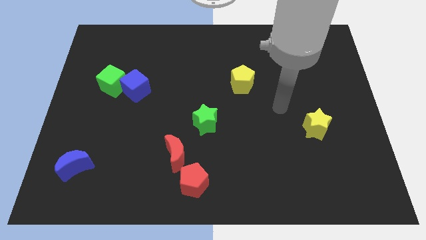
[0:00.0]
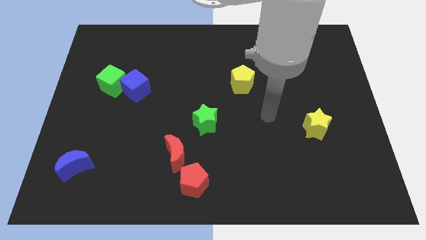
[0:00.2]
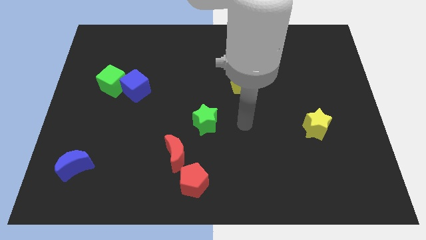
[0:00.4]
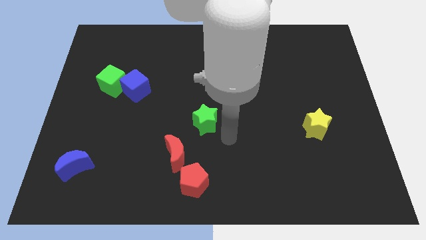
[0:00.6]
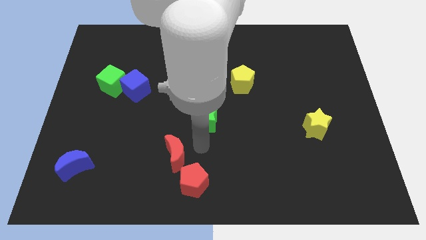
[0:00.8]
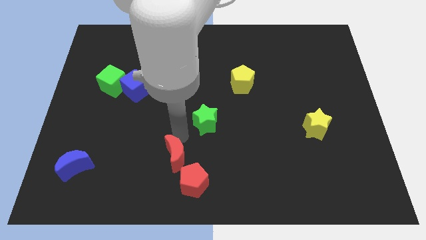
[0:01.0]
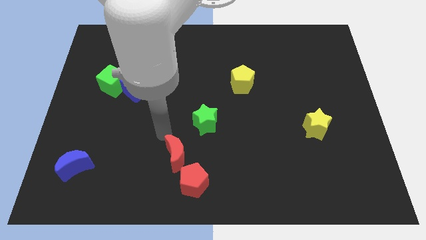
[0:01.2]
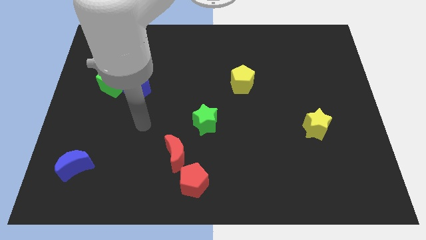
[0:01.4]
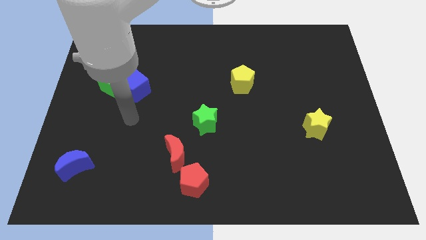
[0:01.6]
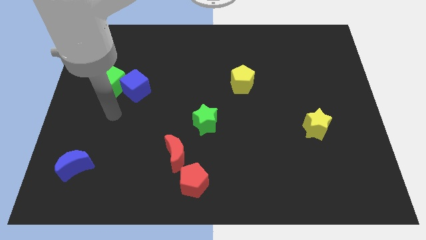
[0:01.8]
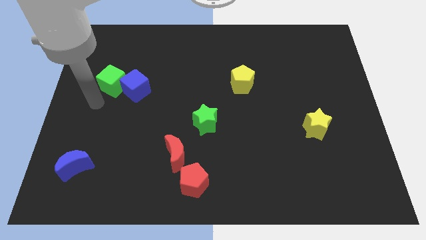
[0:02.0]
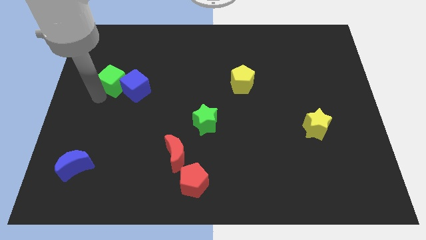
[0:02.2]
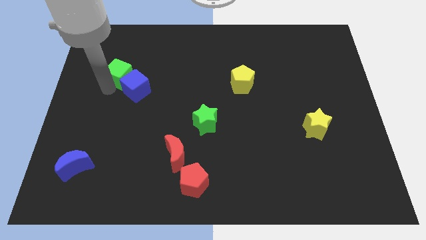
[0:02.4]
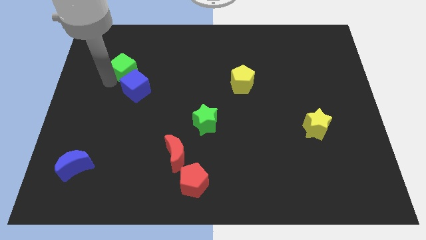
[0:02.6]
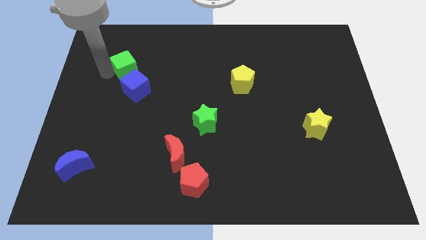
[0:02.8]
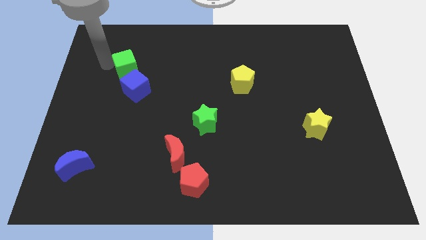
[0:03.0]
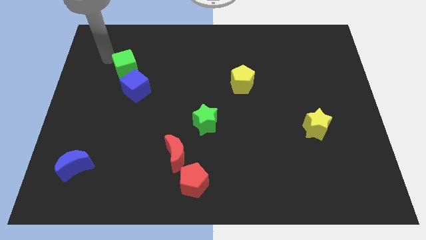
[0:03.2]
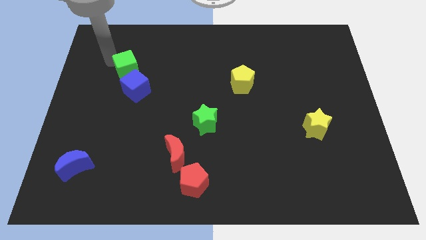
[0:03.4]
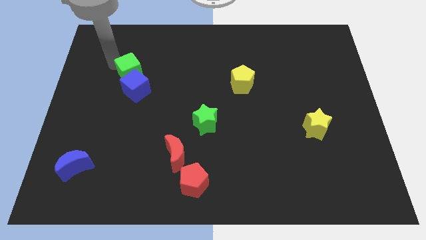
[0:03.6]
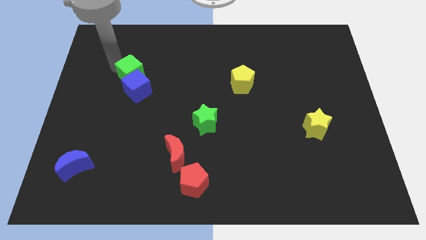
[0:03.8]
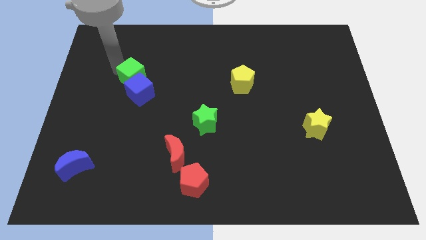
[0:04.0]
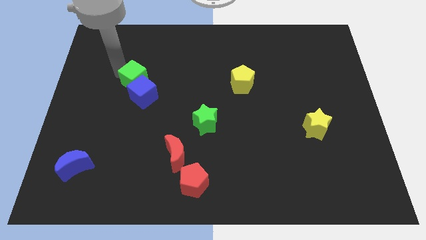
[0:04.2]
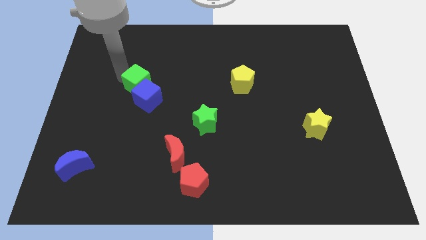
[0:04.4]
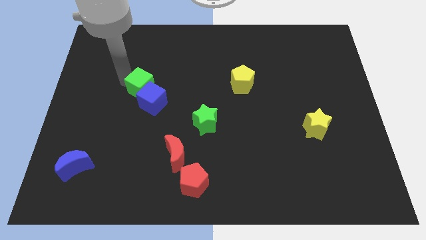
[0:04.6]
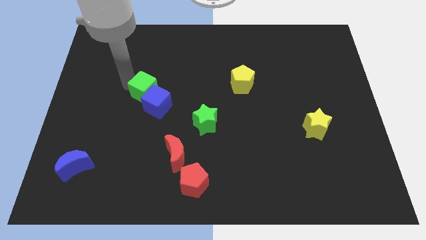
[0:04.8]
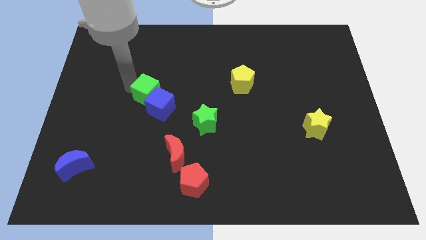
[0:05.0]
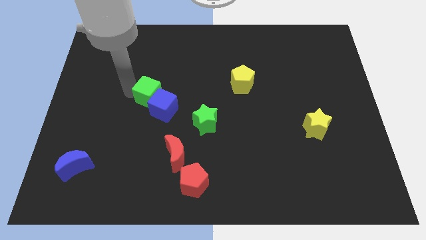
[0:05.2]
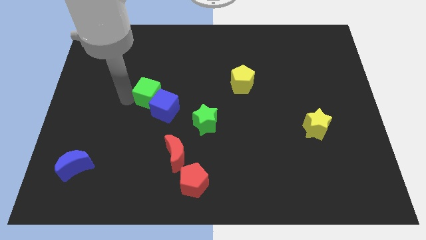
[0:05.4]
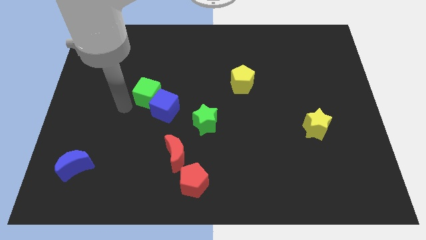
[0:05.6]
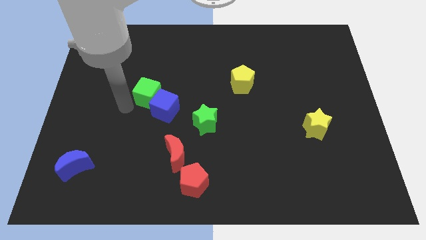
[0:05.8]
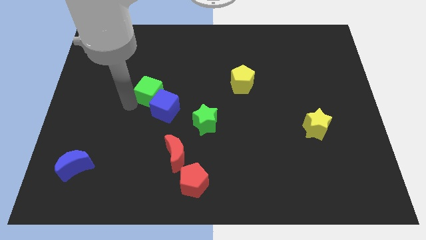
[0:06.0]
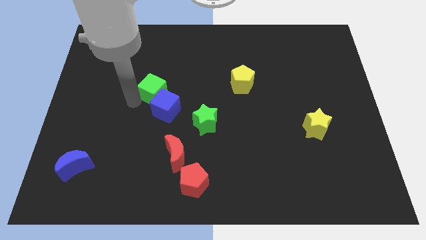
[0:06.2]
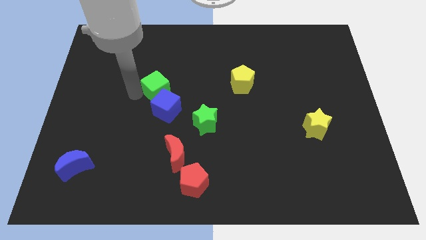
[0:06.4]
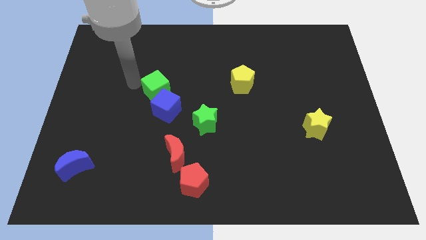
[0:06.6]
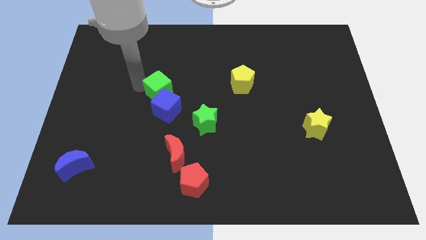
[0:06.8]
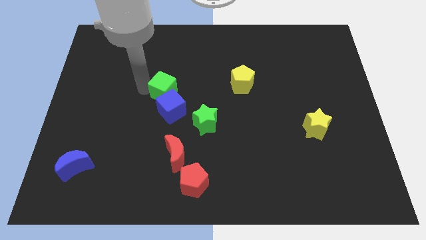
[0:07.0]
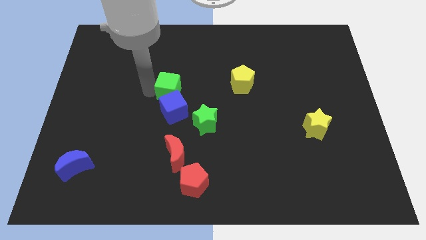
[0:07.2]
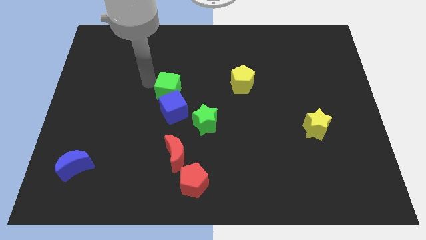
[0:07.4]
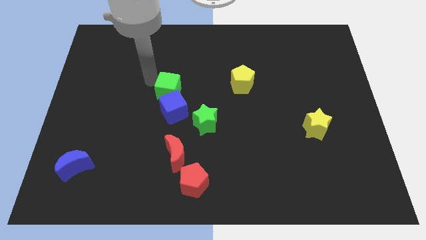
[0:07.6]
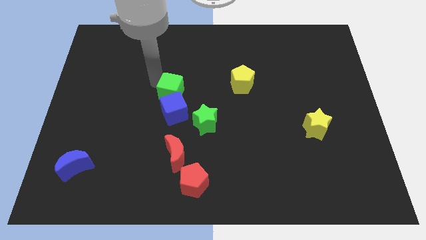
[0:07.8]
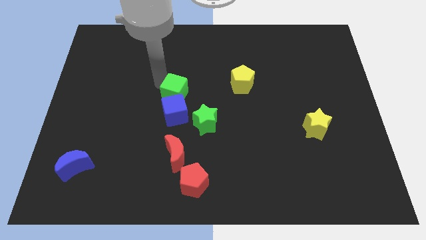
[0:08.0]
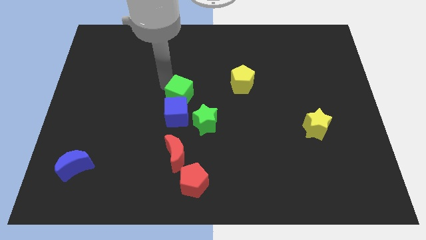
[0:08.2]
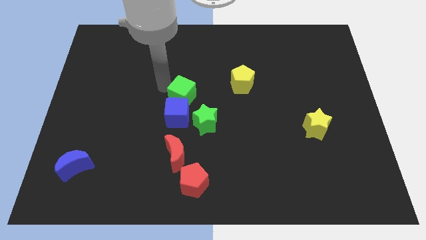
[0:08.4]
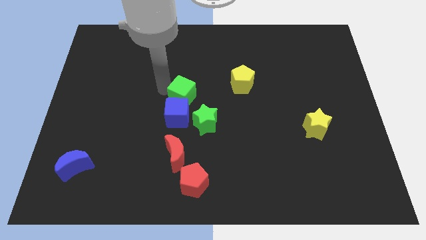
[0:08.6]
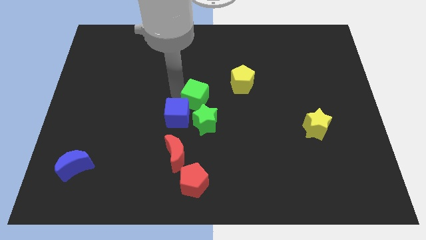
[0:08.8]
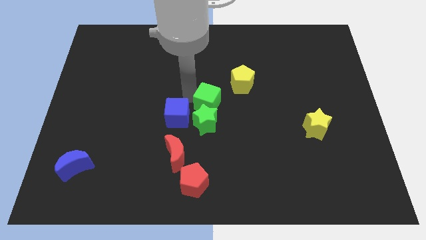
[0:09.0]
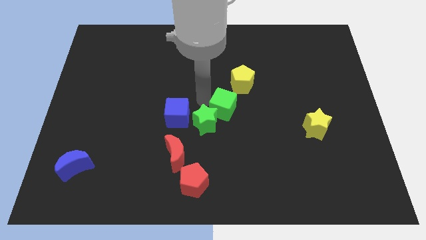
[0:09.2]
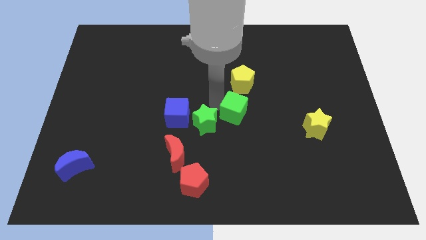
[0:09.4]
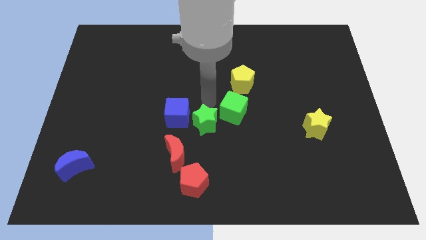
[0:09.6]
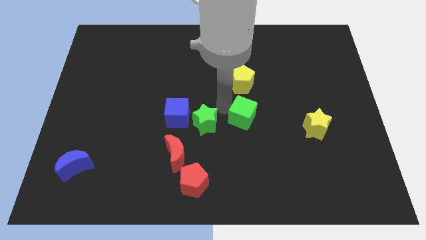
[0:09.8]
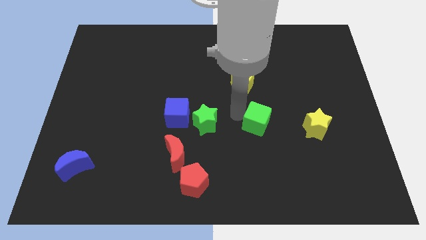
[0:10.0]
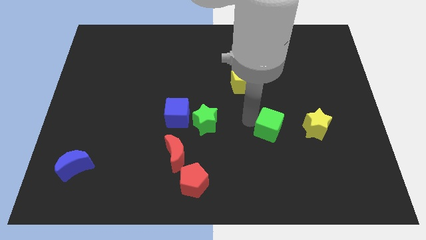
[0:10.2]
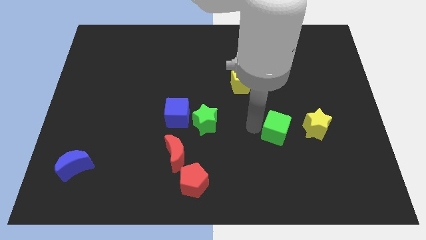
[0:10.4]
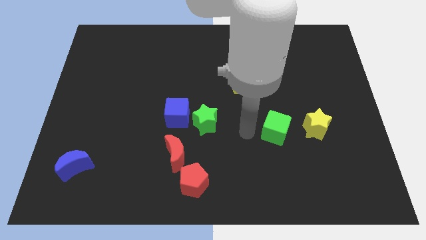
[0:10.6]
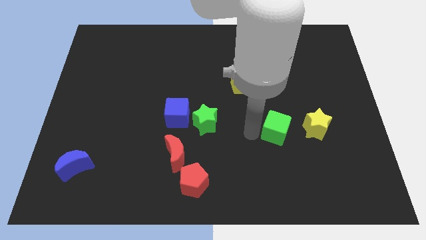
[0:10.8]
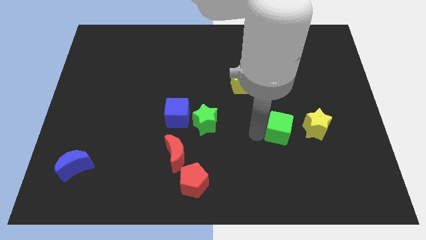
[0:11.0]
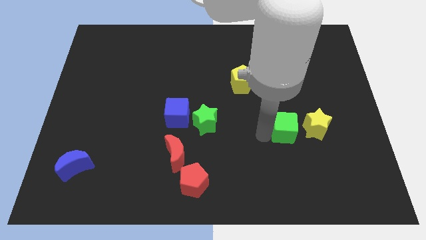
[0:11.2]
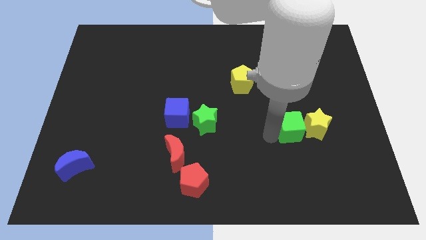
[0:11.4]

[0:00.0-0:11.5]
put the green cube towards the yellow star

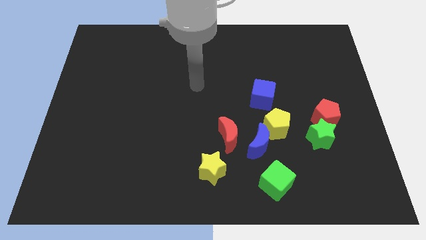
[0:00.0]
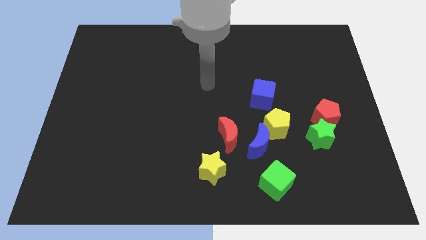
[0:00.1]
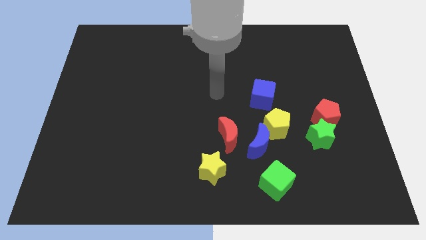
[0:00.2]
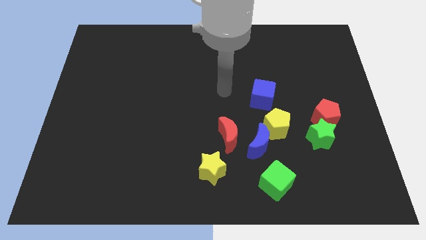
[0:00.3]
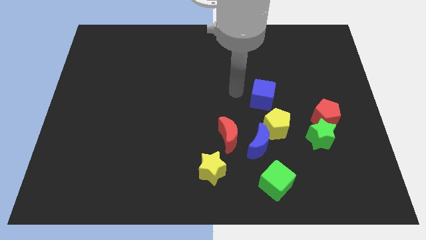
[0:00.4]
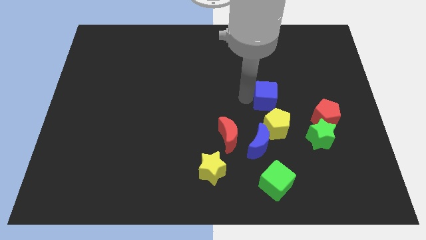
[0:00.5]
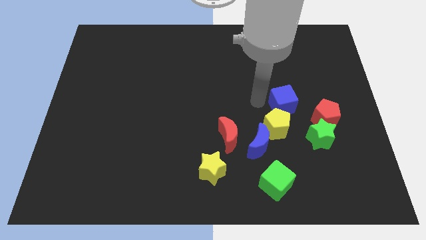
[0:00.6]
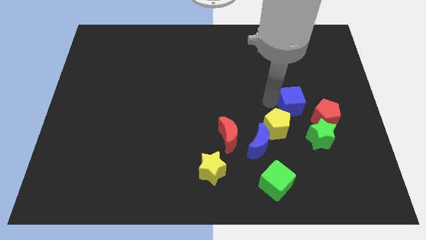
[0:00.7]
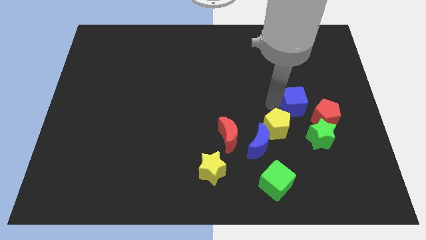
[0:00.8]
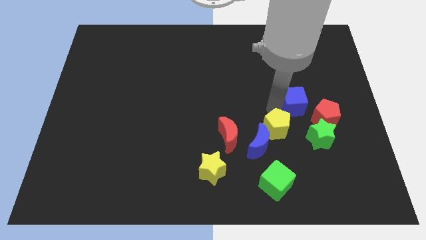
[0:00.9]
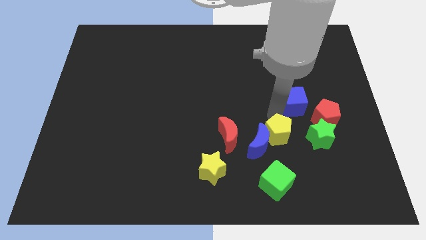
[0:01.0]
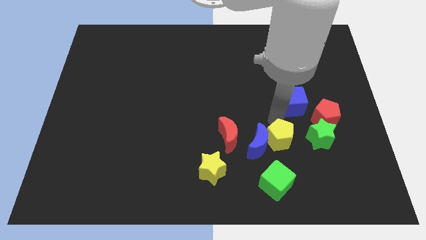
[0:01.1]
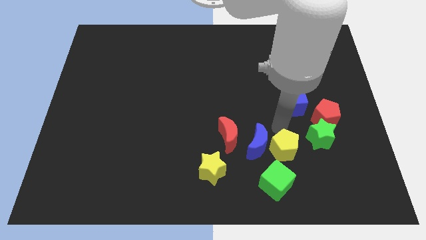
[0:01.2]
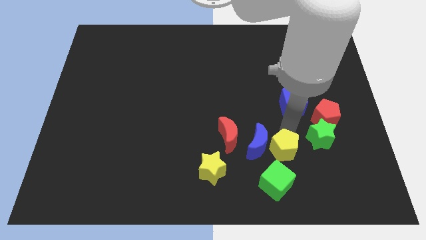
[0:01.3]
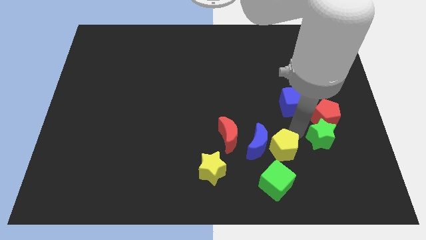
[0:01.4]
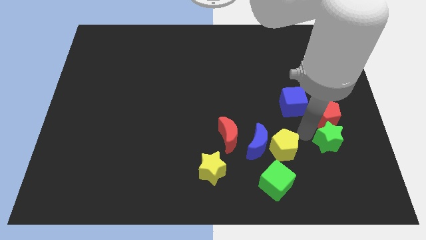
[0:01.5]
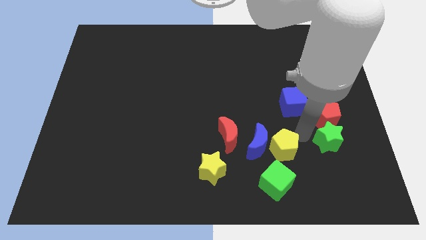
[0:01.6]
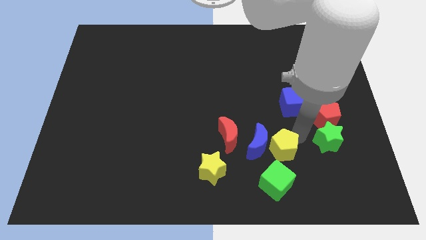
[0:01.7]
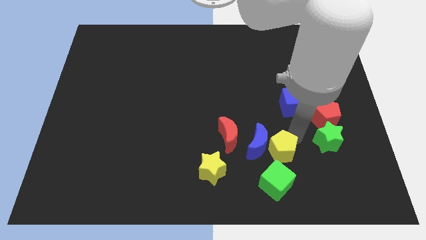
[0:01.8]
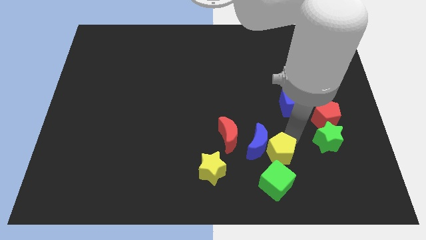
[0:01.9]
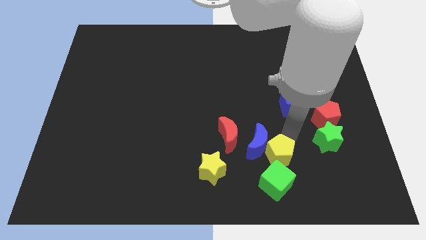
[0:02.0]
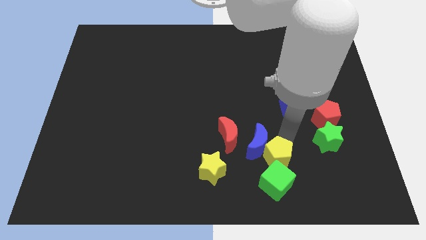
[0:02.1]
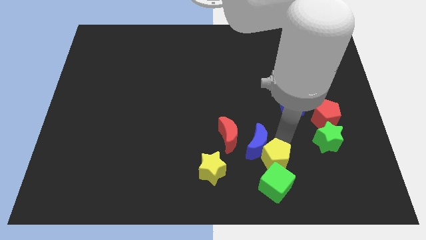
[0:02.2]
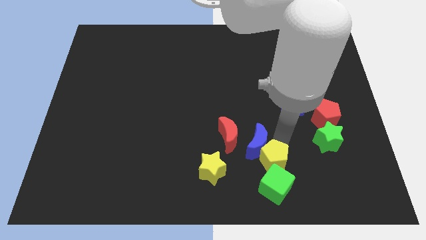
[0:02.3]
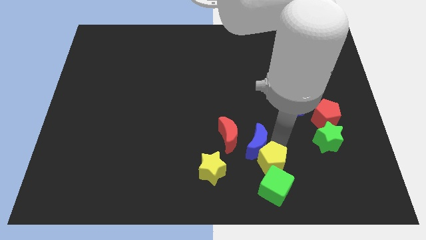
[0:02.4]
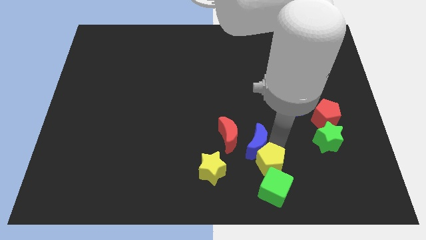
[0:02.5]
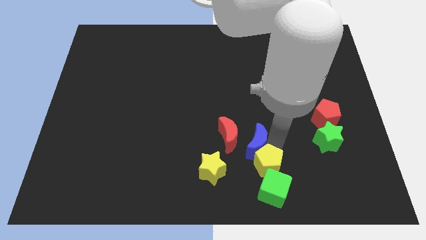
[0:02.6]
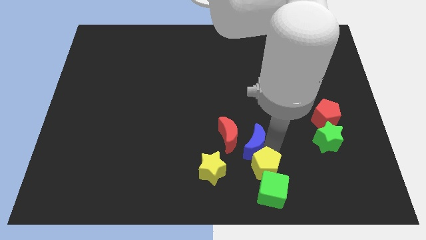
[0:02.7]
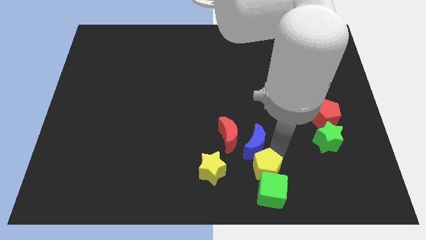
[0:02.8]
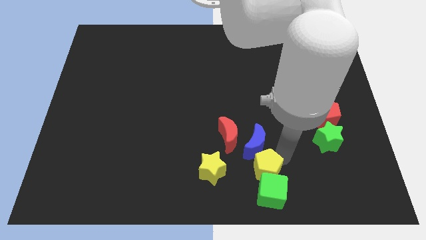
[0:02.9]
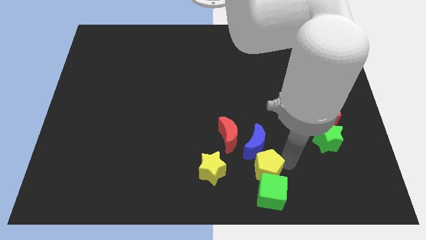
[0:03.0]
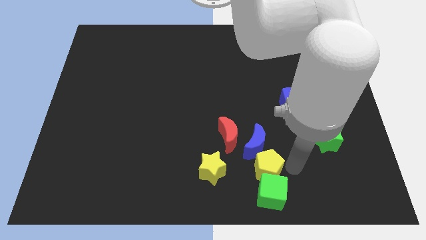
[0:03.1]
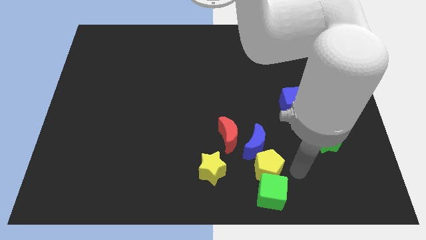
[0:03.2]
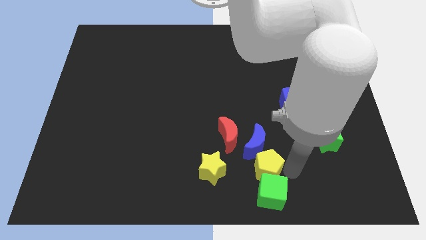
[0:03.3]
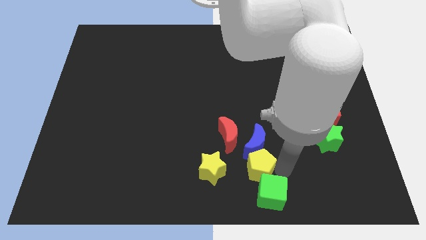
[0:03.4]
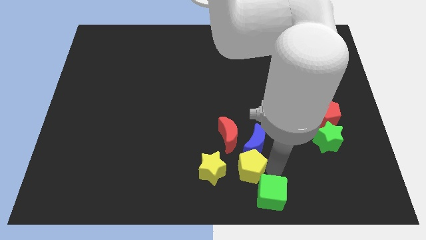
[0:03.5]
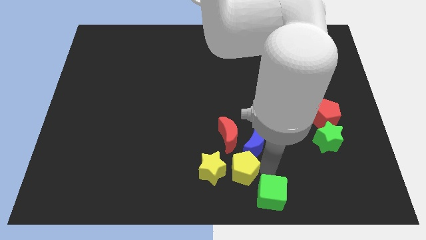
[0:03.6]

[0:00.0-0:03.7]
move the yellow pentagon to the yellow star
